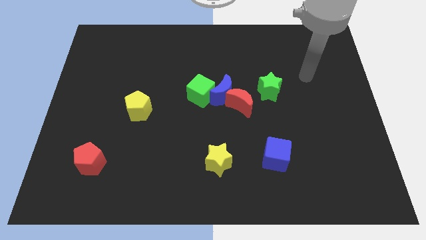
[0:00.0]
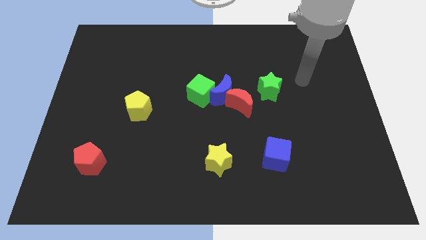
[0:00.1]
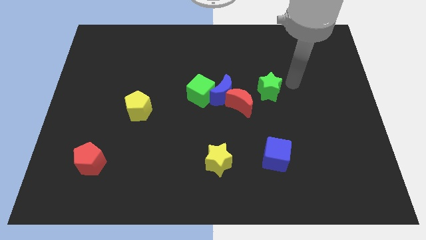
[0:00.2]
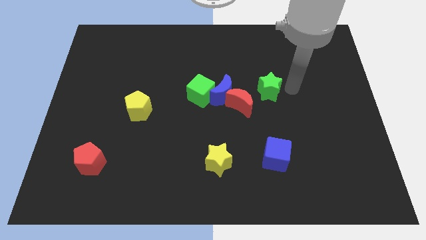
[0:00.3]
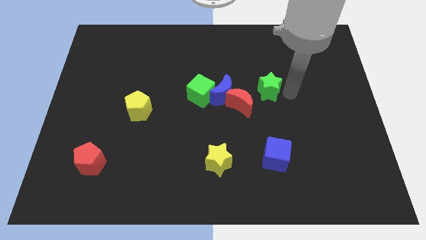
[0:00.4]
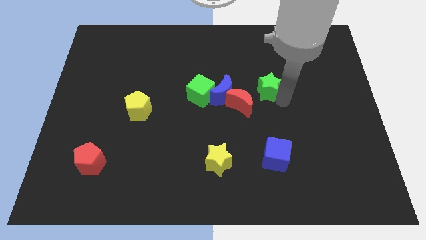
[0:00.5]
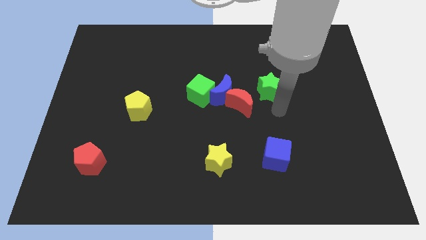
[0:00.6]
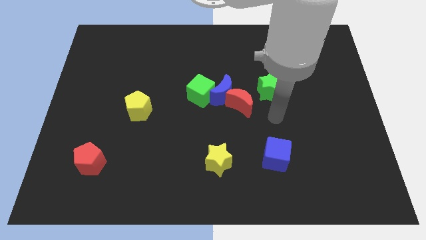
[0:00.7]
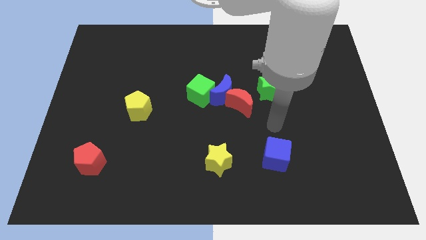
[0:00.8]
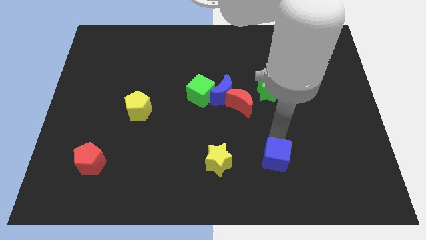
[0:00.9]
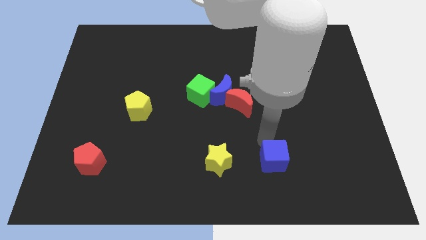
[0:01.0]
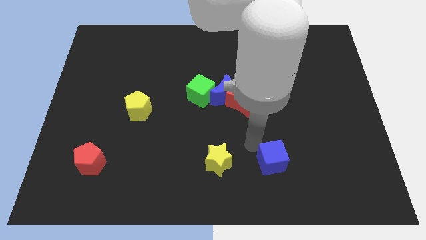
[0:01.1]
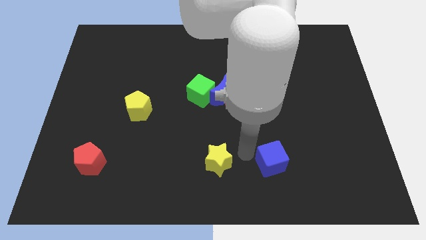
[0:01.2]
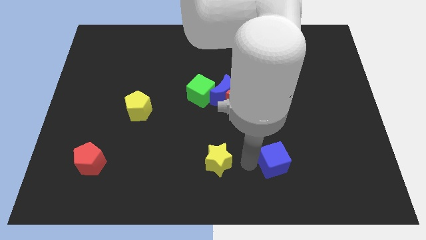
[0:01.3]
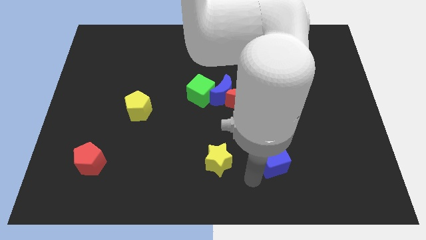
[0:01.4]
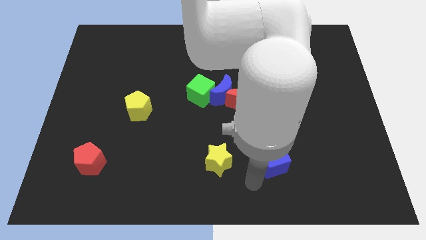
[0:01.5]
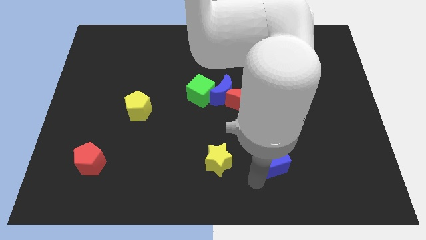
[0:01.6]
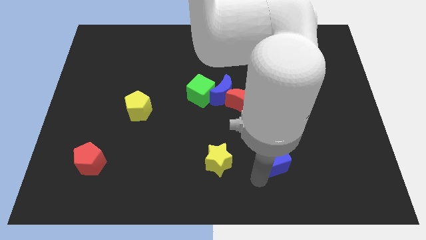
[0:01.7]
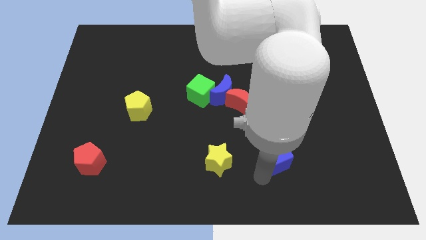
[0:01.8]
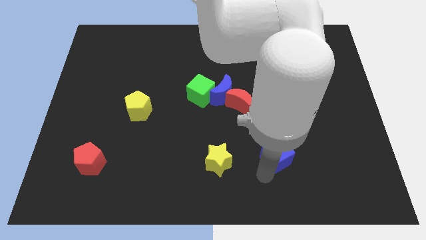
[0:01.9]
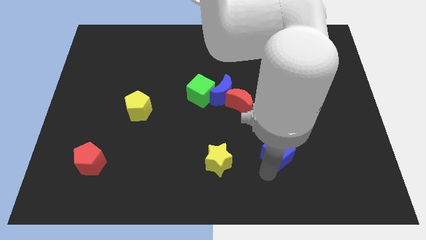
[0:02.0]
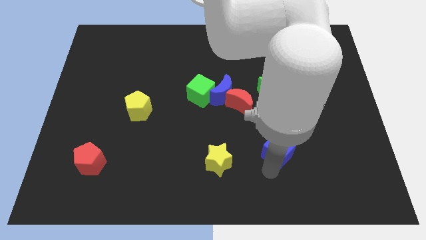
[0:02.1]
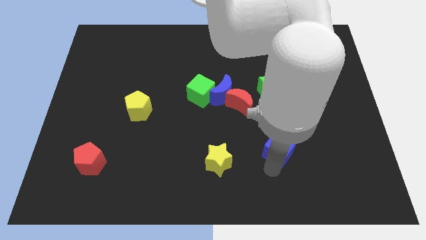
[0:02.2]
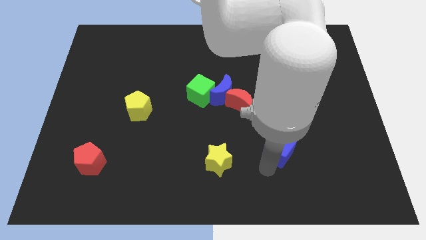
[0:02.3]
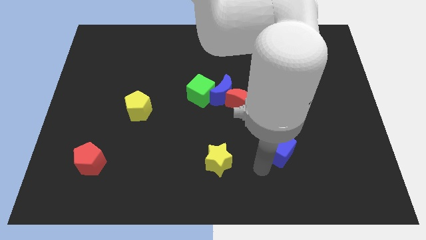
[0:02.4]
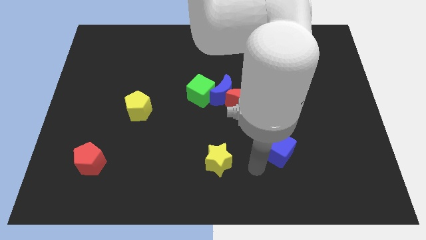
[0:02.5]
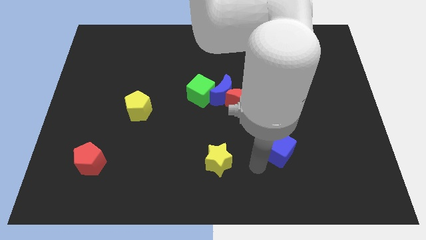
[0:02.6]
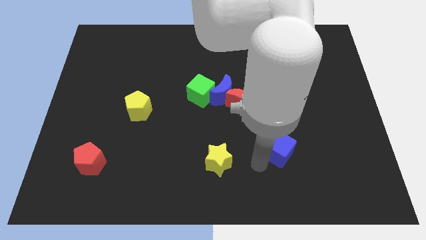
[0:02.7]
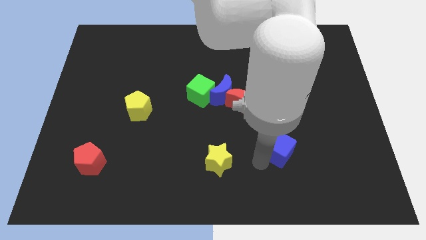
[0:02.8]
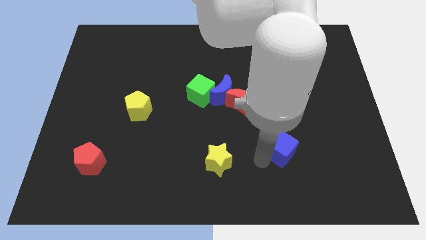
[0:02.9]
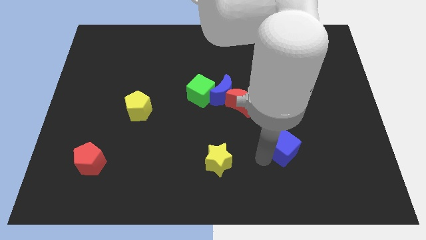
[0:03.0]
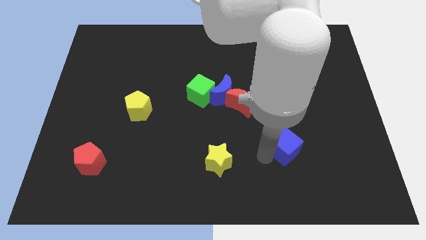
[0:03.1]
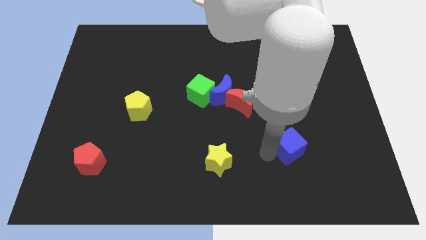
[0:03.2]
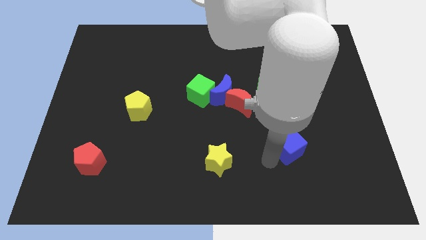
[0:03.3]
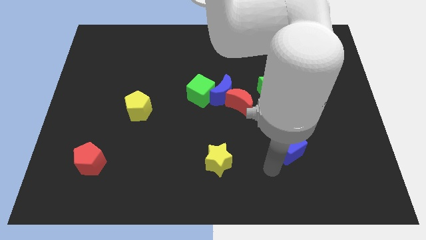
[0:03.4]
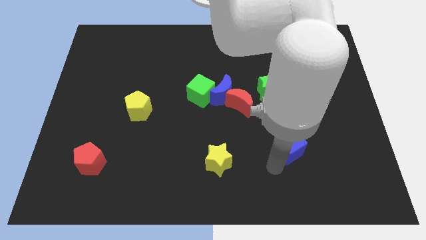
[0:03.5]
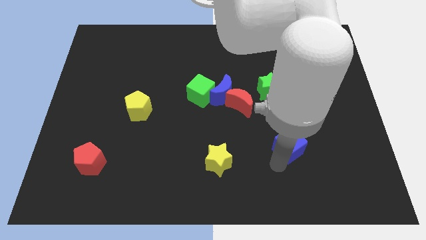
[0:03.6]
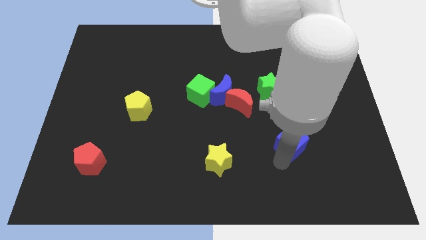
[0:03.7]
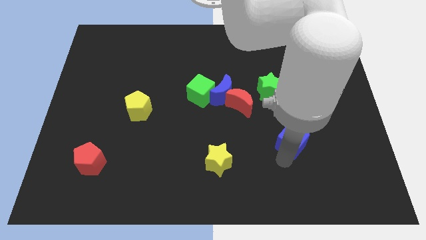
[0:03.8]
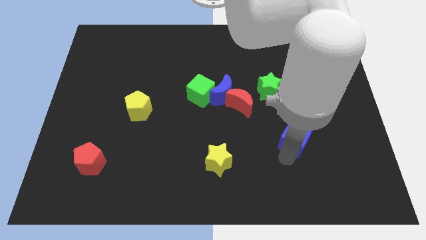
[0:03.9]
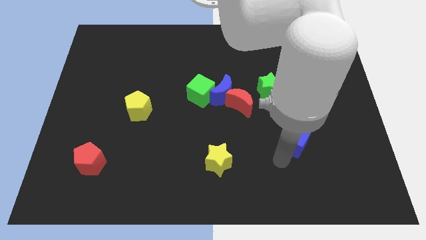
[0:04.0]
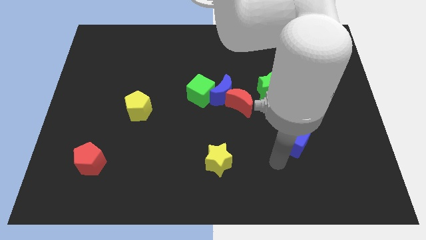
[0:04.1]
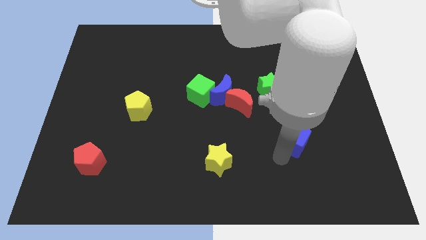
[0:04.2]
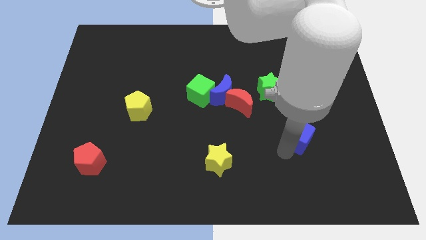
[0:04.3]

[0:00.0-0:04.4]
slightly slide the blue cube diagonally up and to the right

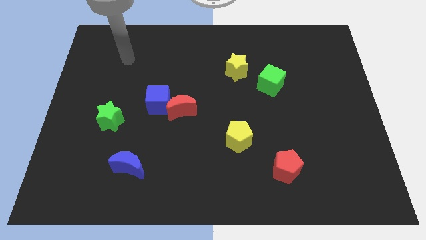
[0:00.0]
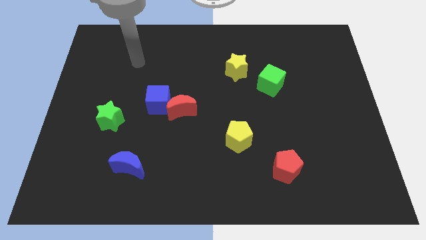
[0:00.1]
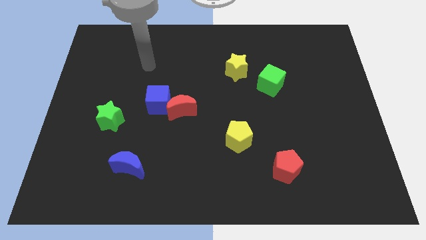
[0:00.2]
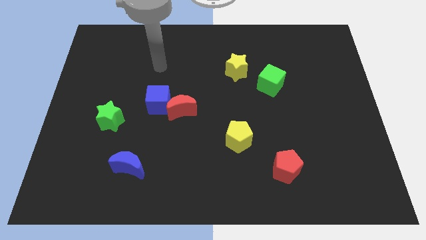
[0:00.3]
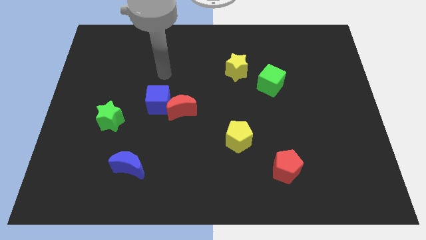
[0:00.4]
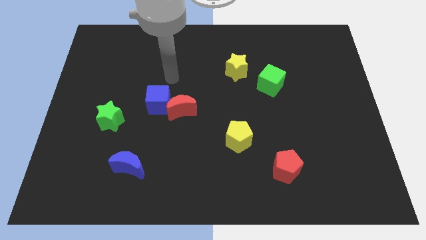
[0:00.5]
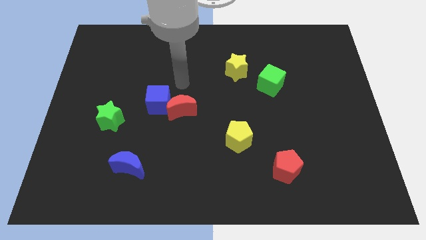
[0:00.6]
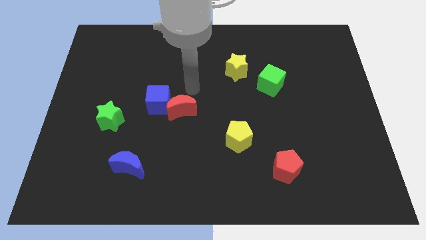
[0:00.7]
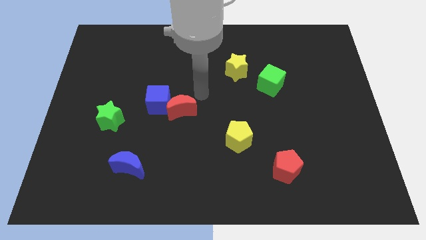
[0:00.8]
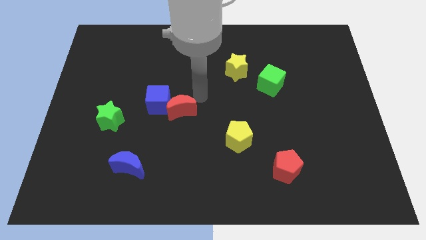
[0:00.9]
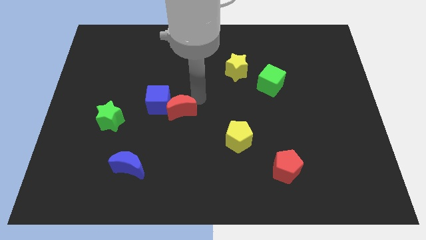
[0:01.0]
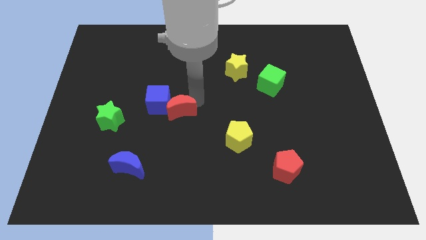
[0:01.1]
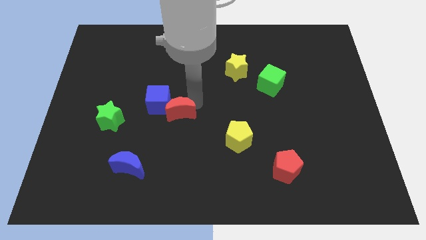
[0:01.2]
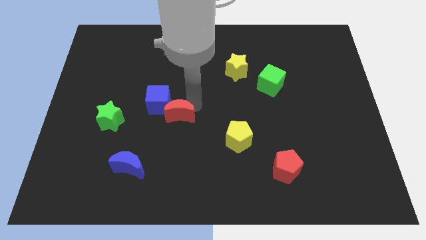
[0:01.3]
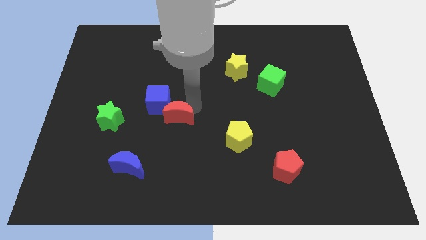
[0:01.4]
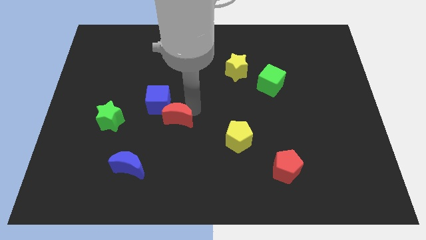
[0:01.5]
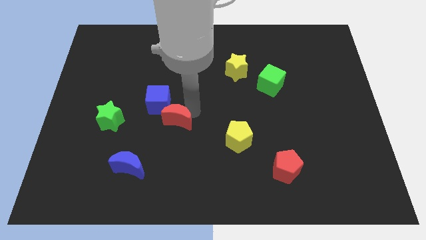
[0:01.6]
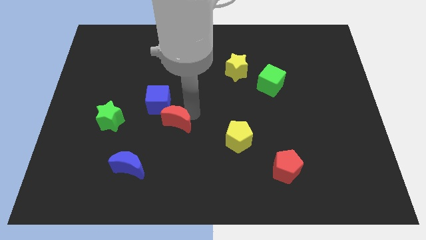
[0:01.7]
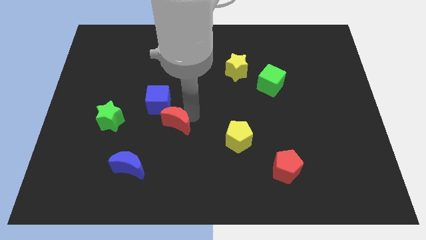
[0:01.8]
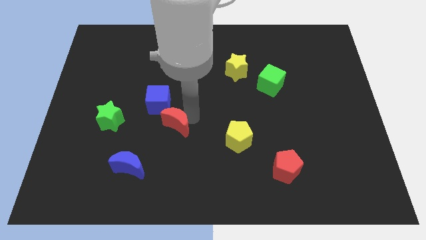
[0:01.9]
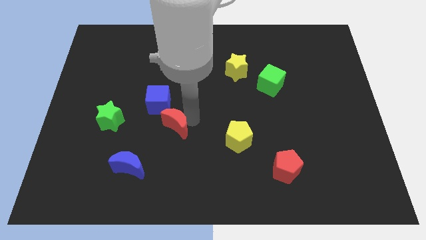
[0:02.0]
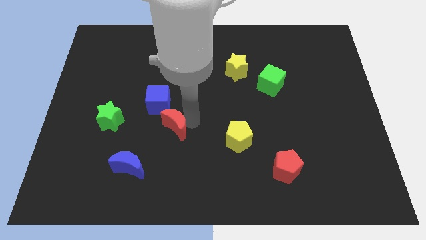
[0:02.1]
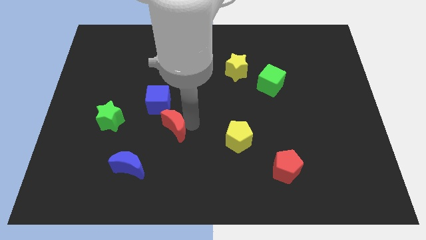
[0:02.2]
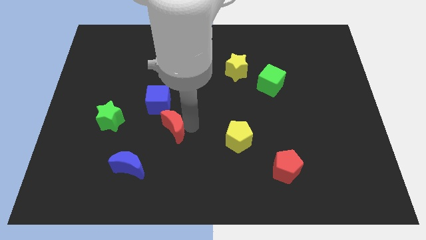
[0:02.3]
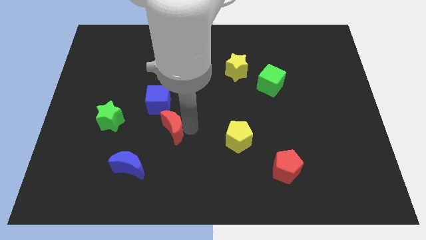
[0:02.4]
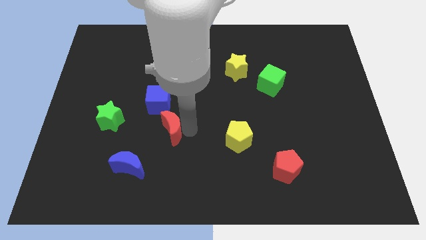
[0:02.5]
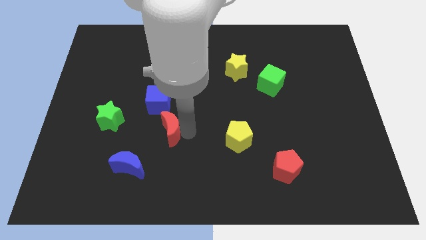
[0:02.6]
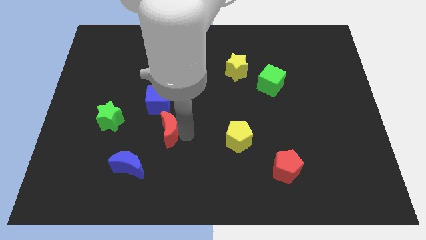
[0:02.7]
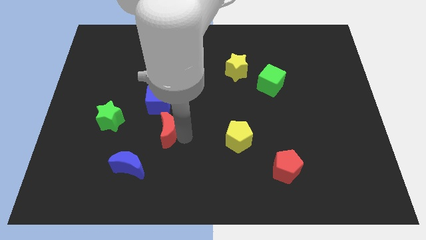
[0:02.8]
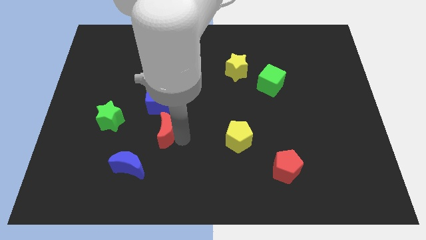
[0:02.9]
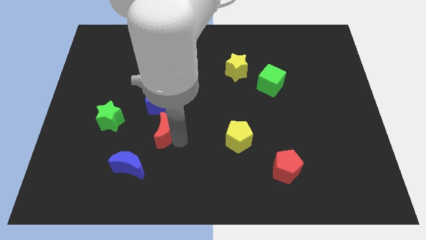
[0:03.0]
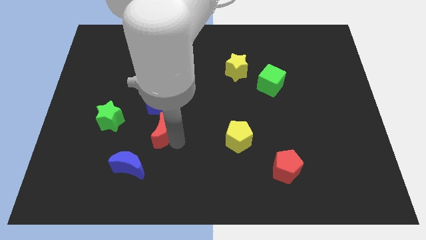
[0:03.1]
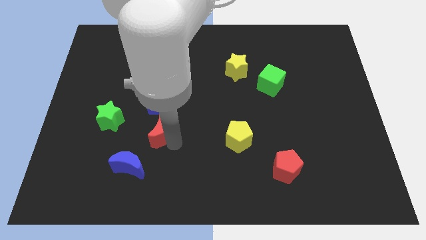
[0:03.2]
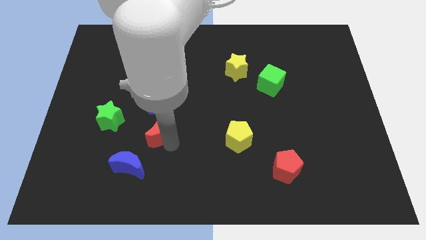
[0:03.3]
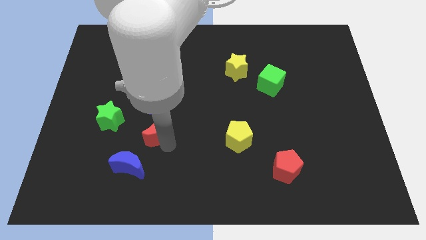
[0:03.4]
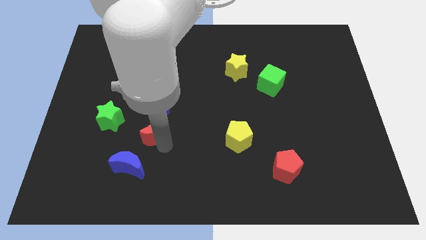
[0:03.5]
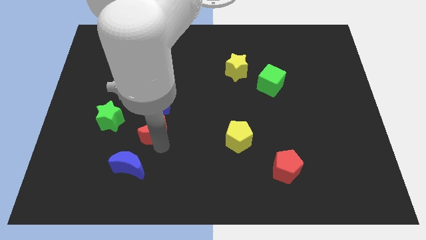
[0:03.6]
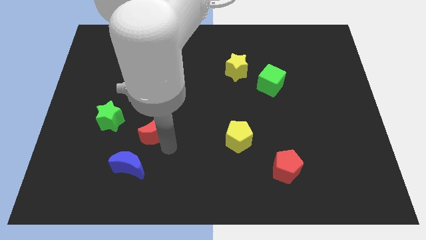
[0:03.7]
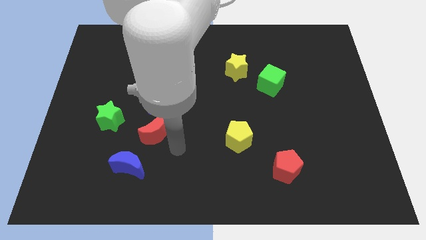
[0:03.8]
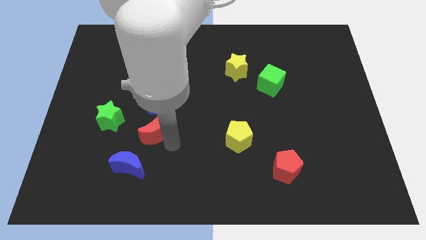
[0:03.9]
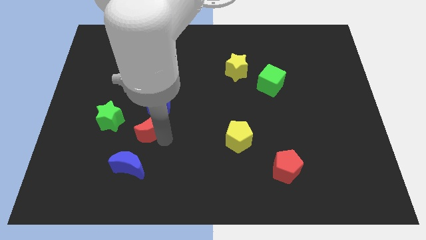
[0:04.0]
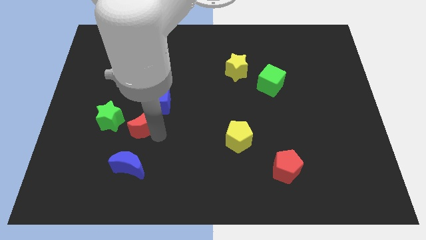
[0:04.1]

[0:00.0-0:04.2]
slightly slide the red moon to the left
